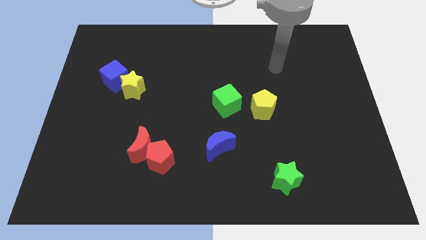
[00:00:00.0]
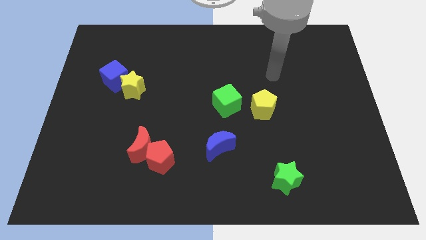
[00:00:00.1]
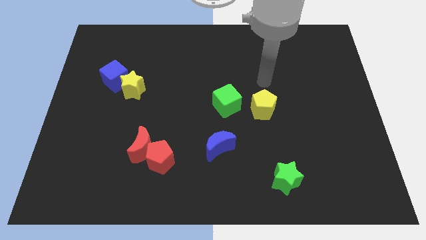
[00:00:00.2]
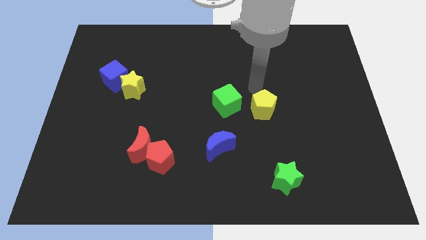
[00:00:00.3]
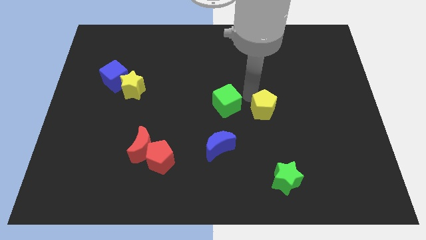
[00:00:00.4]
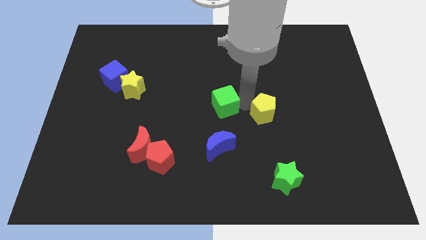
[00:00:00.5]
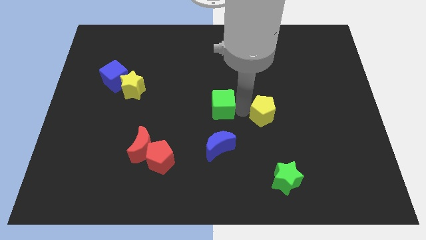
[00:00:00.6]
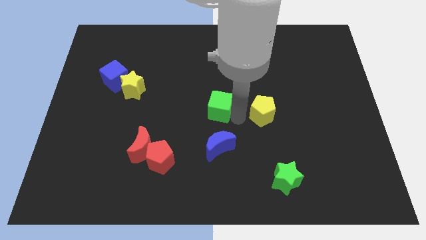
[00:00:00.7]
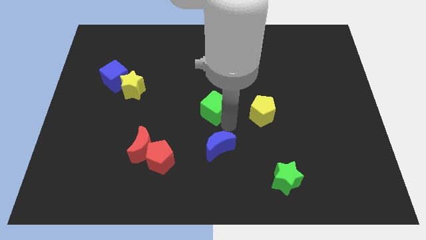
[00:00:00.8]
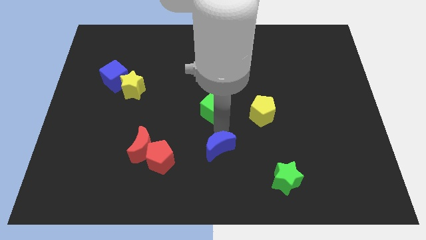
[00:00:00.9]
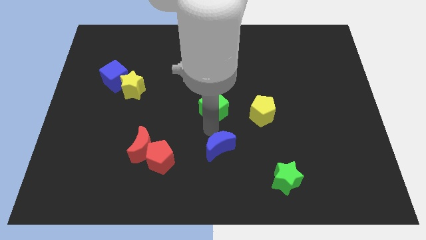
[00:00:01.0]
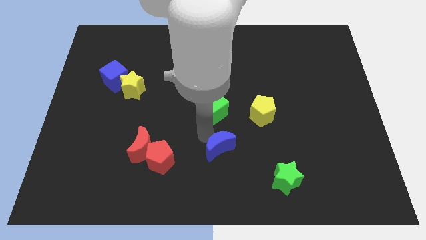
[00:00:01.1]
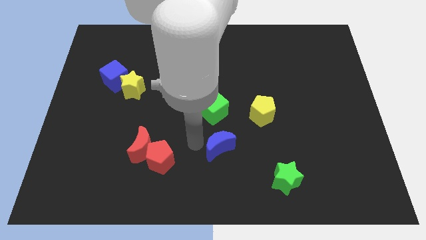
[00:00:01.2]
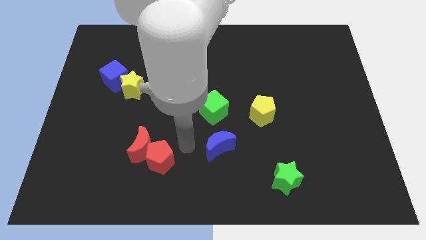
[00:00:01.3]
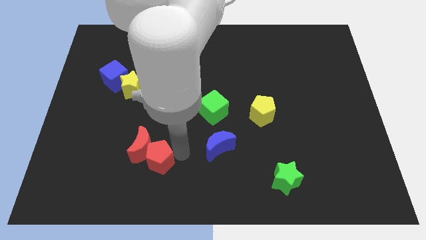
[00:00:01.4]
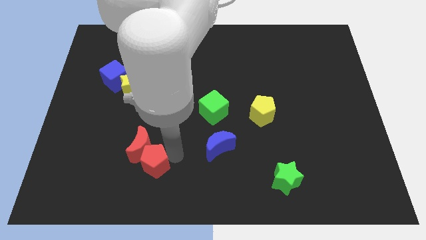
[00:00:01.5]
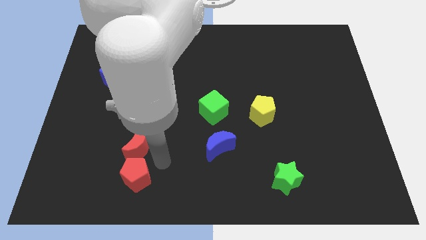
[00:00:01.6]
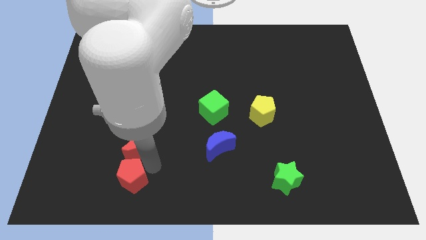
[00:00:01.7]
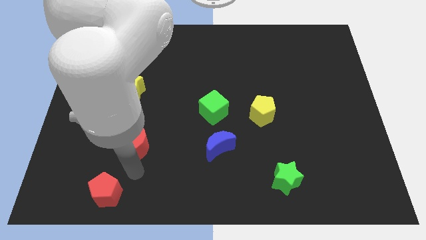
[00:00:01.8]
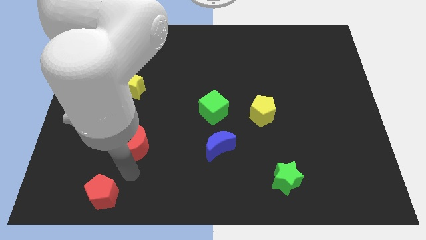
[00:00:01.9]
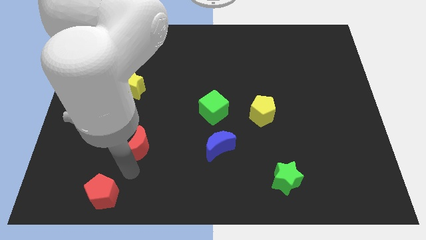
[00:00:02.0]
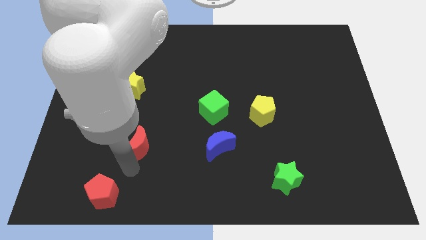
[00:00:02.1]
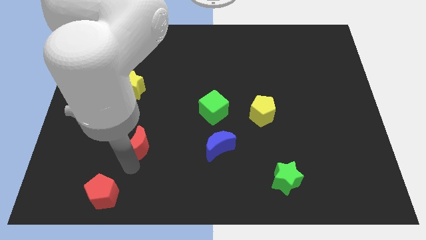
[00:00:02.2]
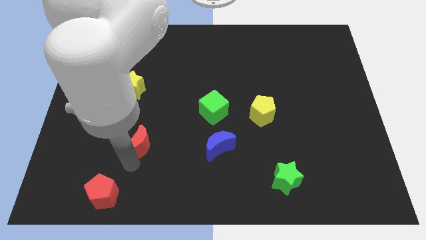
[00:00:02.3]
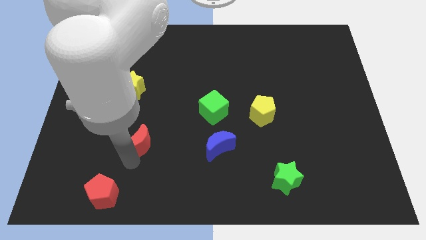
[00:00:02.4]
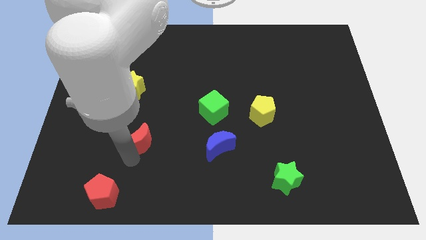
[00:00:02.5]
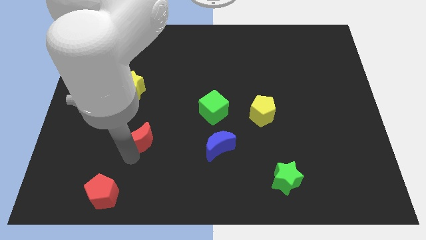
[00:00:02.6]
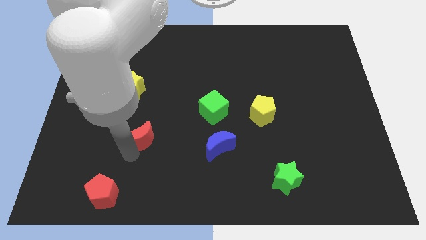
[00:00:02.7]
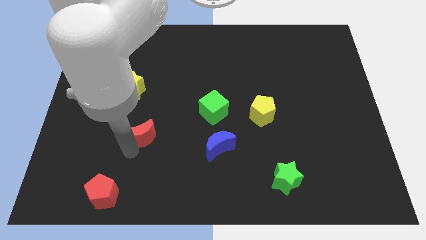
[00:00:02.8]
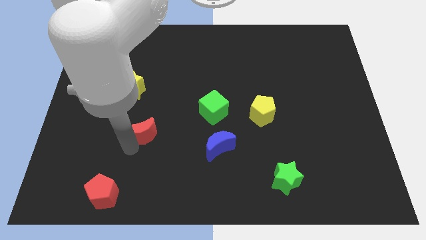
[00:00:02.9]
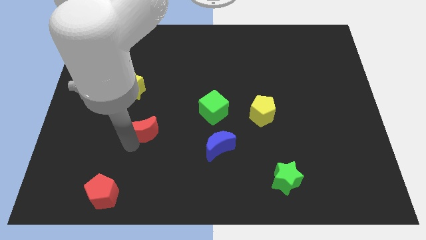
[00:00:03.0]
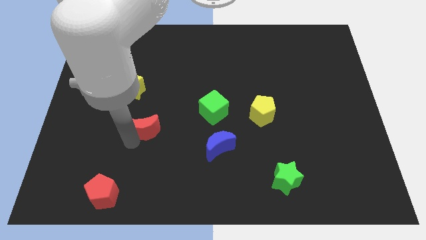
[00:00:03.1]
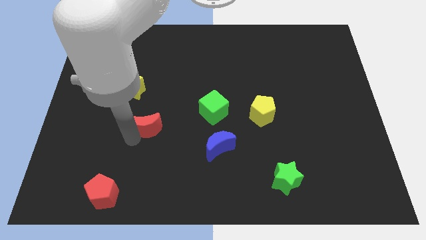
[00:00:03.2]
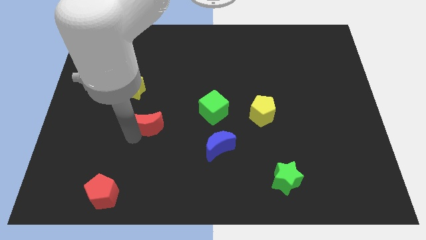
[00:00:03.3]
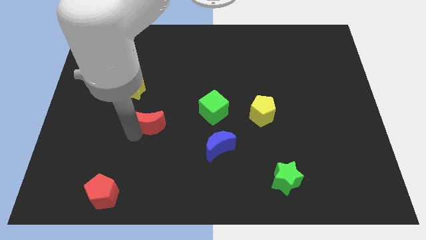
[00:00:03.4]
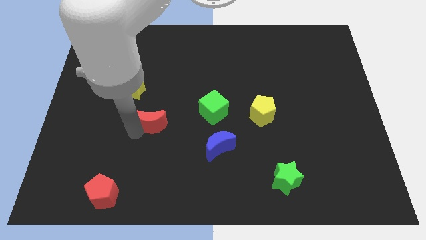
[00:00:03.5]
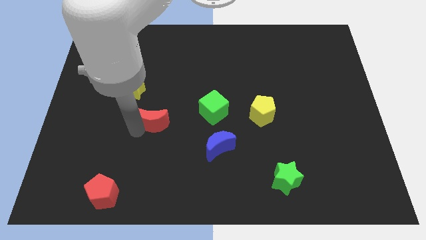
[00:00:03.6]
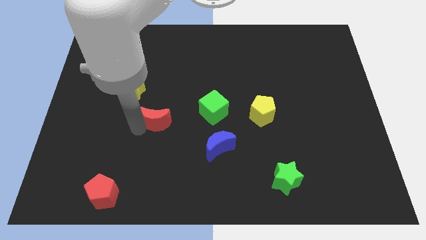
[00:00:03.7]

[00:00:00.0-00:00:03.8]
slide the red moon upwards a little

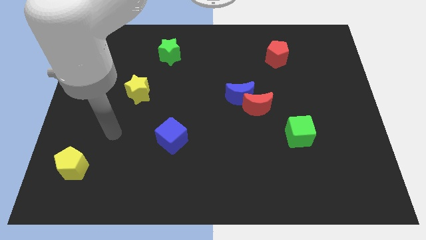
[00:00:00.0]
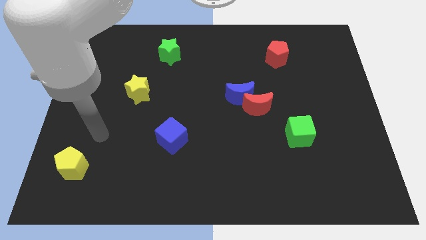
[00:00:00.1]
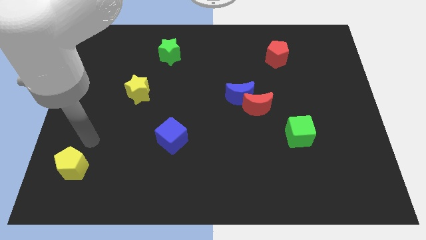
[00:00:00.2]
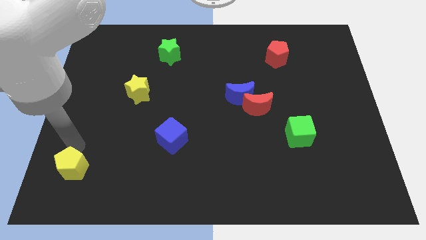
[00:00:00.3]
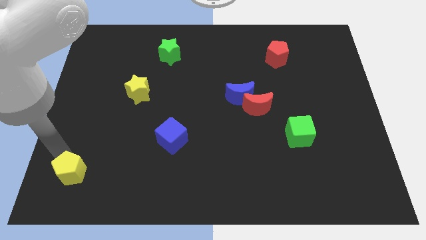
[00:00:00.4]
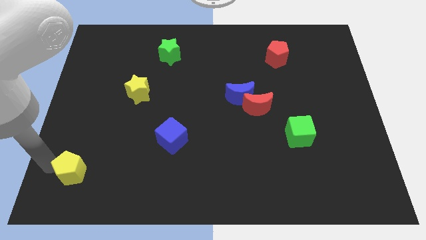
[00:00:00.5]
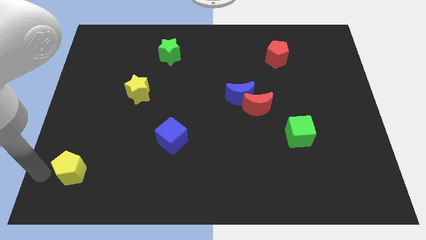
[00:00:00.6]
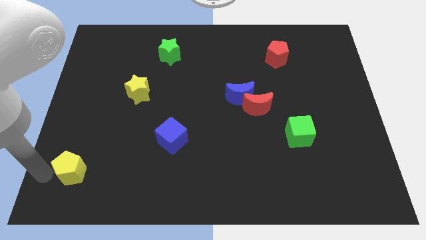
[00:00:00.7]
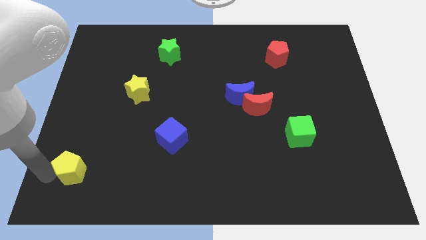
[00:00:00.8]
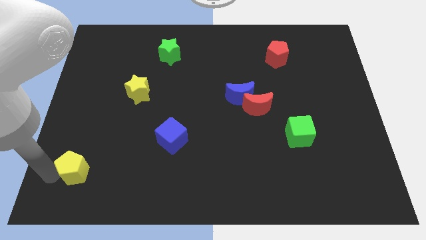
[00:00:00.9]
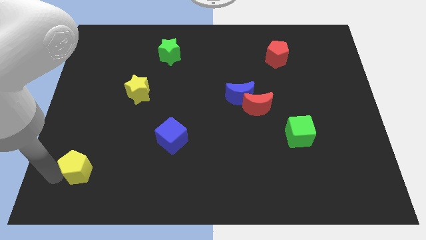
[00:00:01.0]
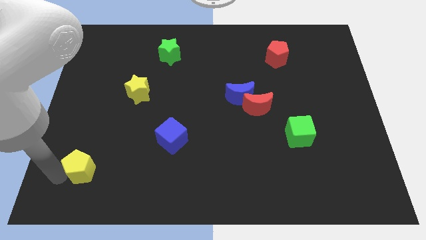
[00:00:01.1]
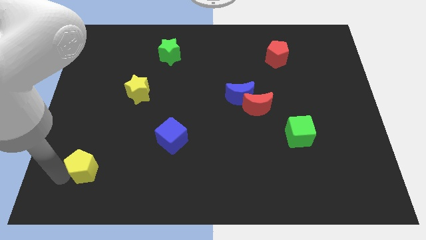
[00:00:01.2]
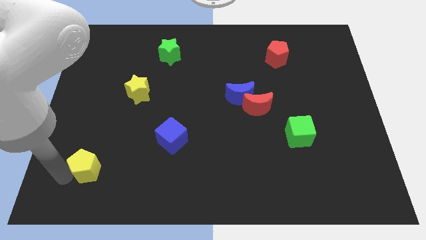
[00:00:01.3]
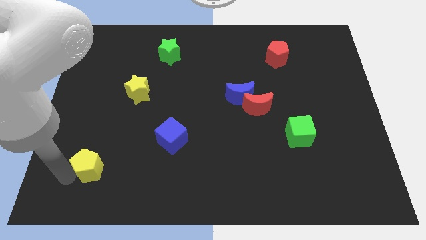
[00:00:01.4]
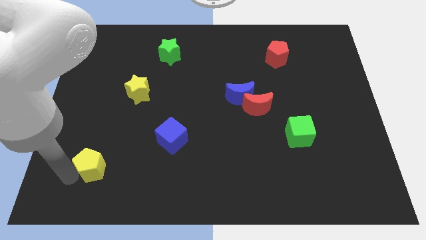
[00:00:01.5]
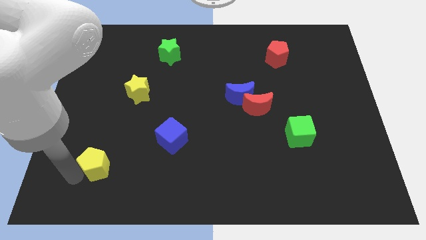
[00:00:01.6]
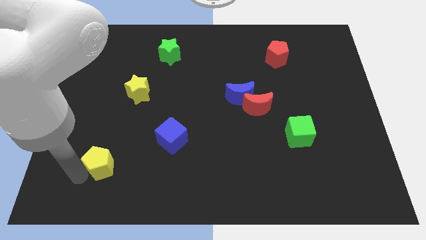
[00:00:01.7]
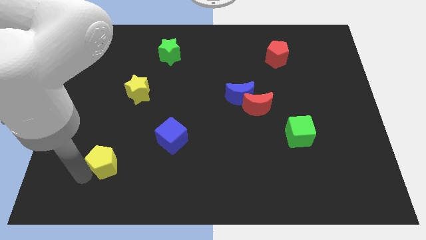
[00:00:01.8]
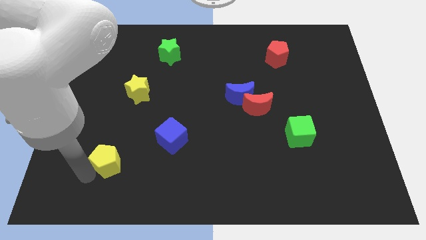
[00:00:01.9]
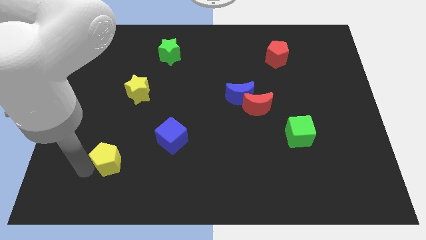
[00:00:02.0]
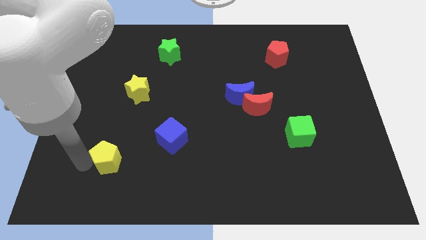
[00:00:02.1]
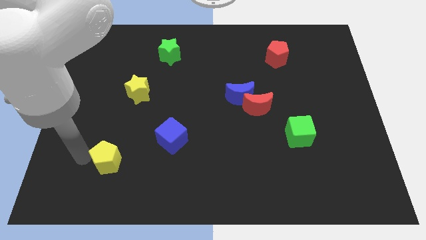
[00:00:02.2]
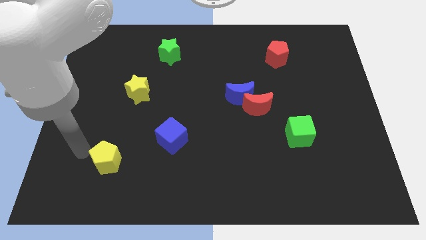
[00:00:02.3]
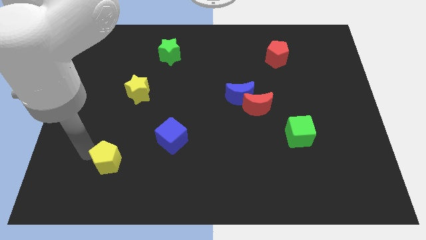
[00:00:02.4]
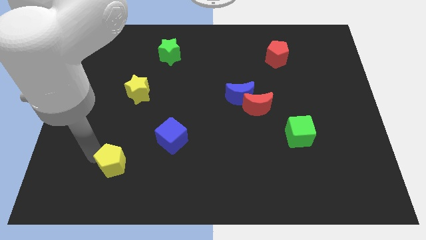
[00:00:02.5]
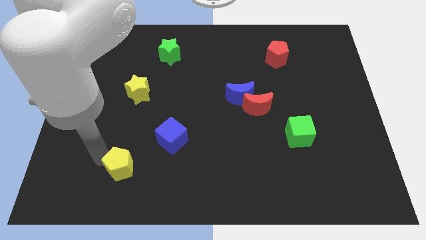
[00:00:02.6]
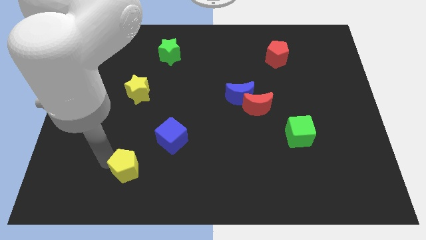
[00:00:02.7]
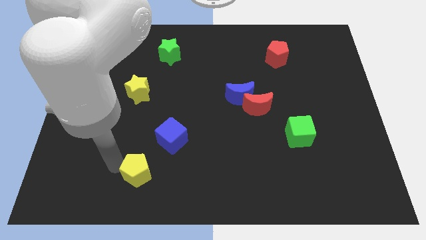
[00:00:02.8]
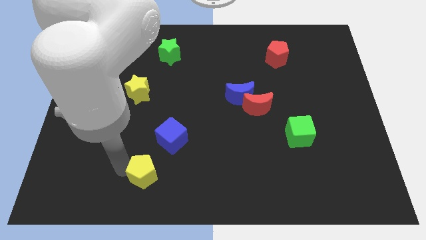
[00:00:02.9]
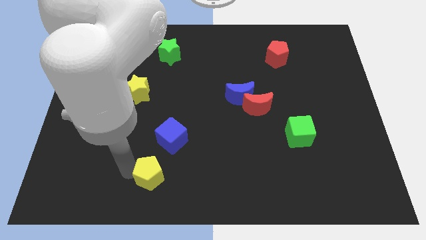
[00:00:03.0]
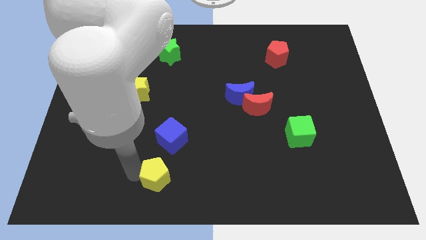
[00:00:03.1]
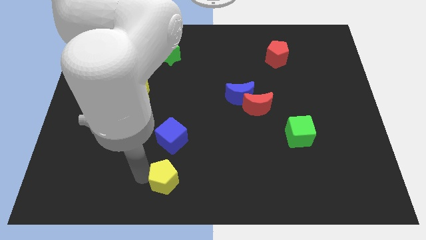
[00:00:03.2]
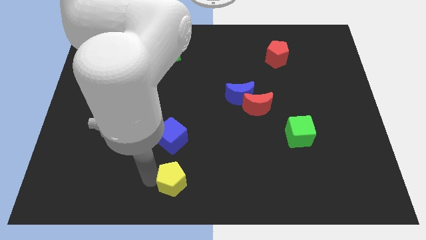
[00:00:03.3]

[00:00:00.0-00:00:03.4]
slide the yellow pentagon right

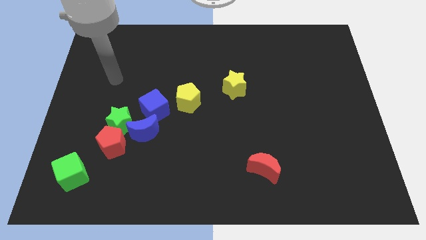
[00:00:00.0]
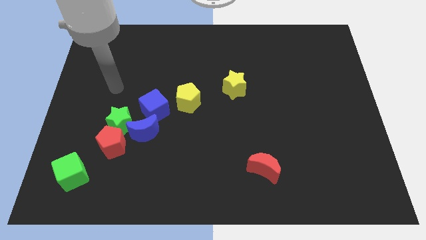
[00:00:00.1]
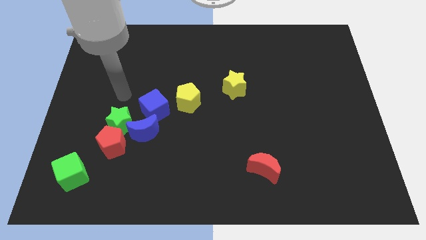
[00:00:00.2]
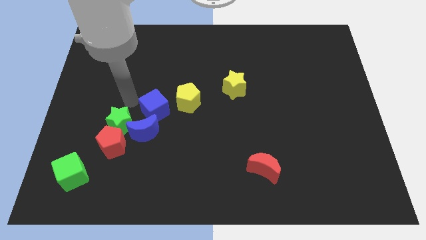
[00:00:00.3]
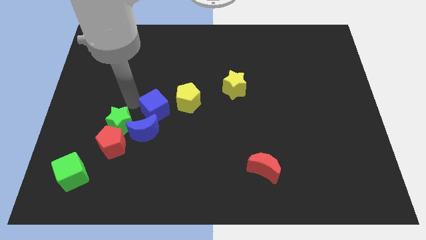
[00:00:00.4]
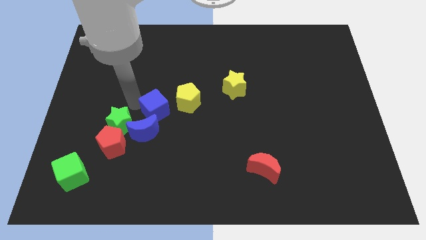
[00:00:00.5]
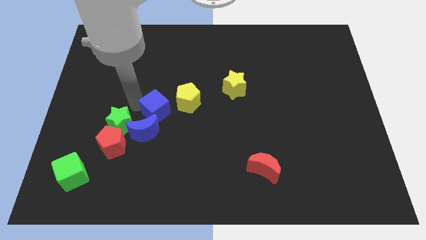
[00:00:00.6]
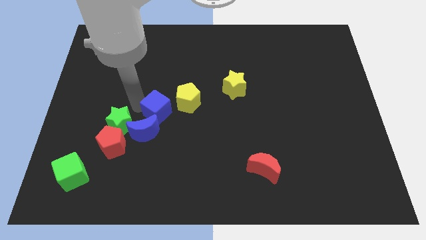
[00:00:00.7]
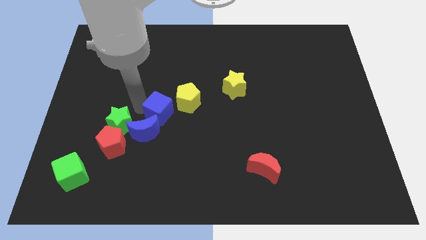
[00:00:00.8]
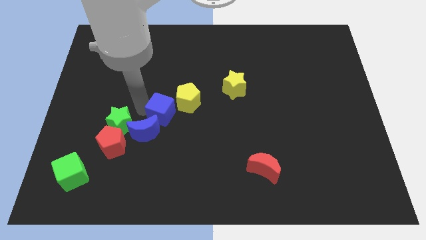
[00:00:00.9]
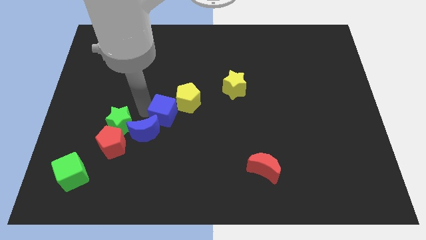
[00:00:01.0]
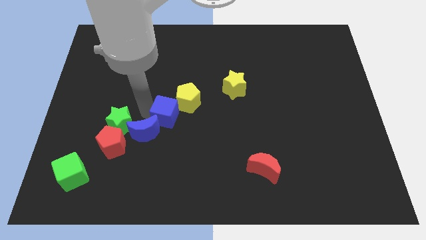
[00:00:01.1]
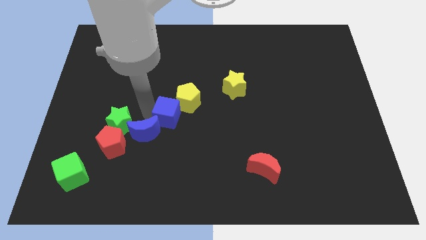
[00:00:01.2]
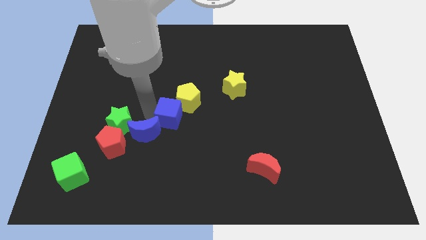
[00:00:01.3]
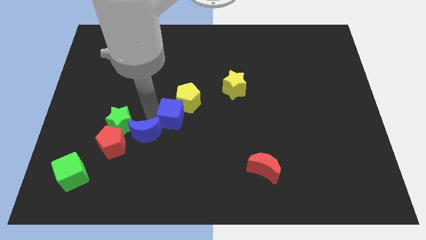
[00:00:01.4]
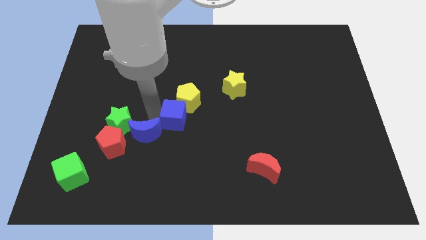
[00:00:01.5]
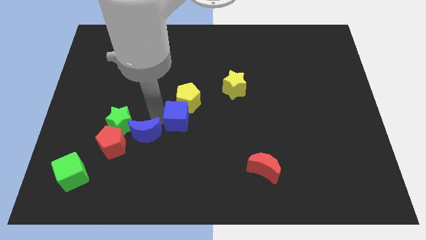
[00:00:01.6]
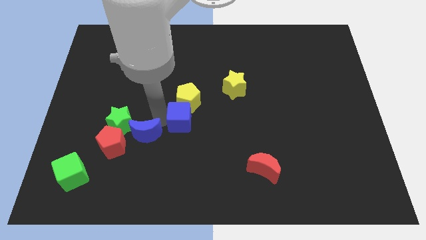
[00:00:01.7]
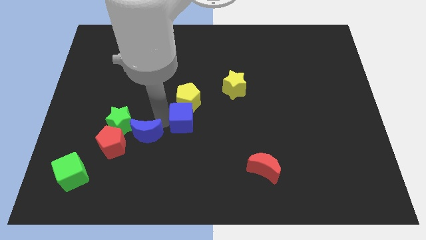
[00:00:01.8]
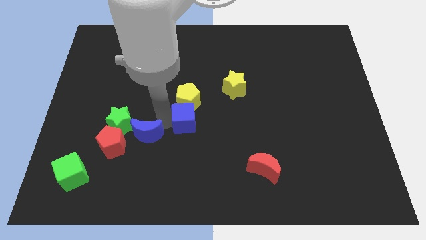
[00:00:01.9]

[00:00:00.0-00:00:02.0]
push the blue cube somewhat right
